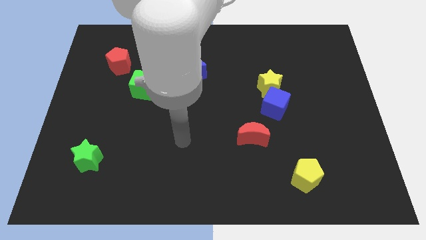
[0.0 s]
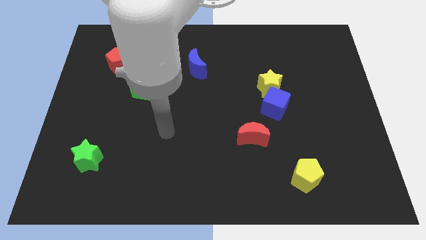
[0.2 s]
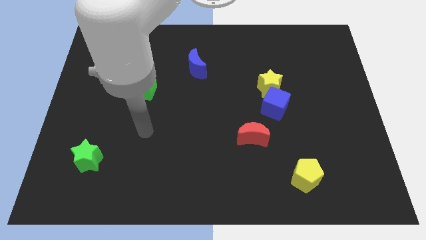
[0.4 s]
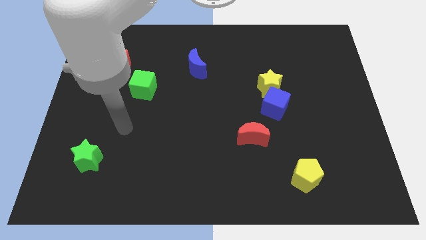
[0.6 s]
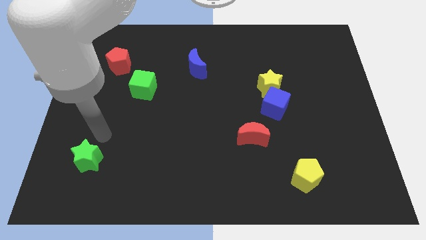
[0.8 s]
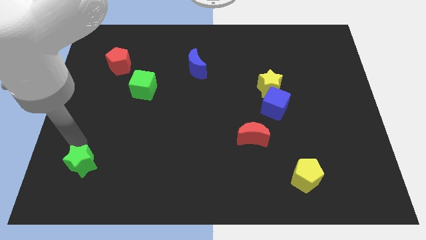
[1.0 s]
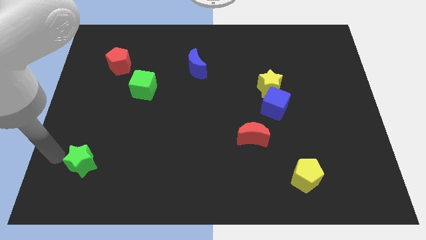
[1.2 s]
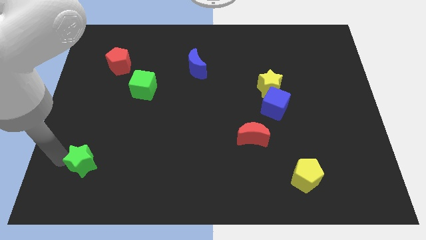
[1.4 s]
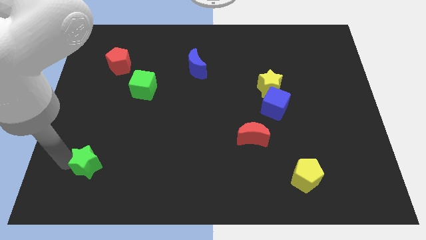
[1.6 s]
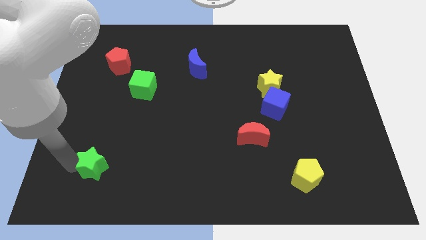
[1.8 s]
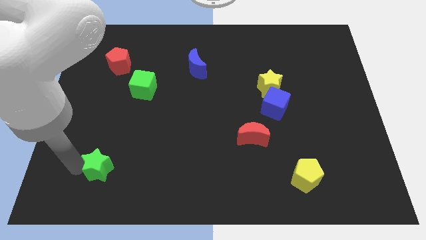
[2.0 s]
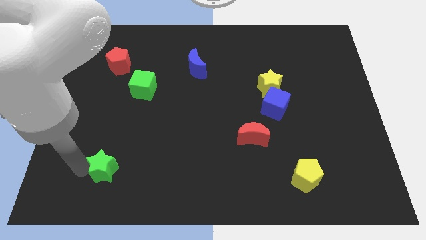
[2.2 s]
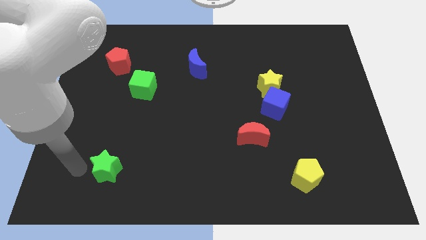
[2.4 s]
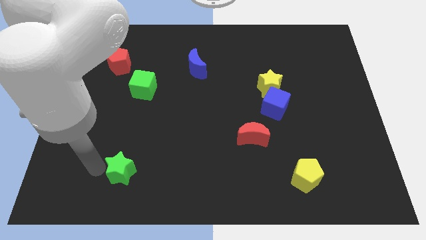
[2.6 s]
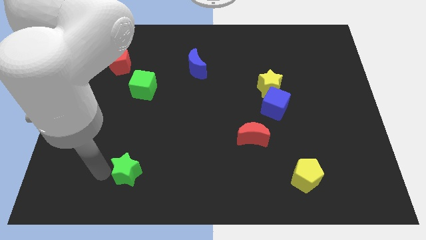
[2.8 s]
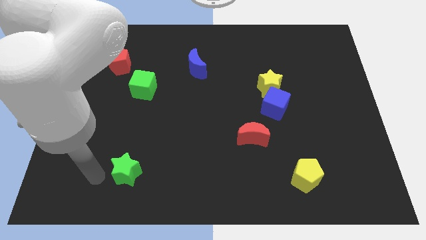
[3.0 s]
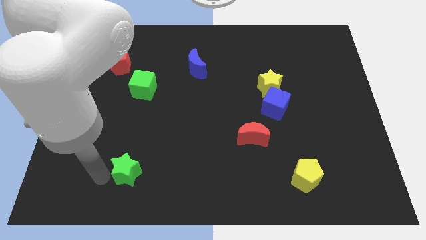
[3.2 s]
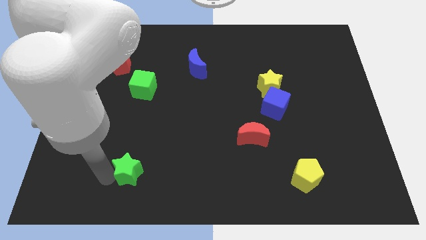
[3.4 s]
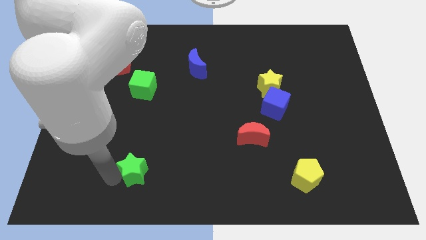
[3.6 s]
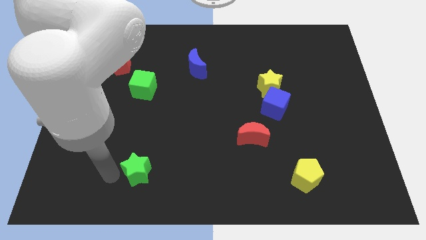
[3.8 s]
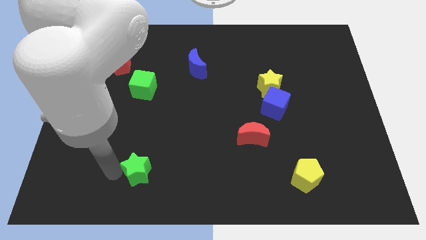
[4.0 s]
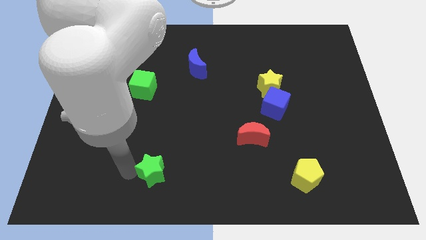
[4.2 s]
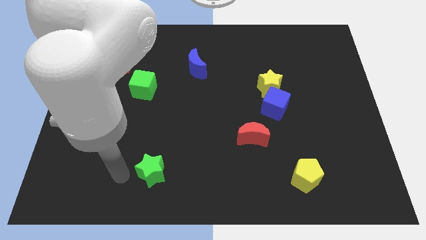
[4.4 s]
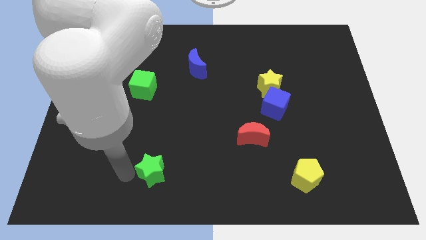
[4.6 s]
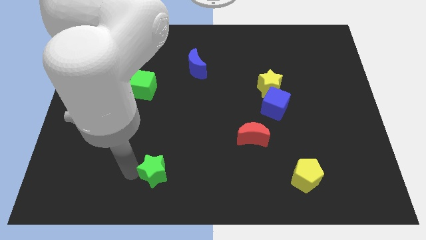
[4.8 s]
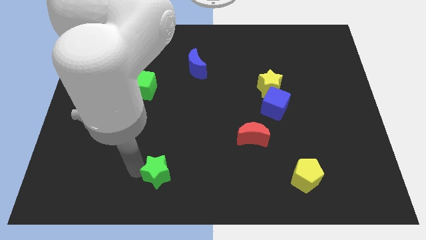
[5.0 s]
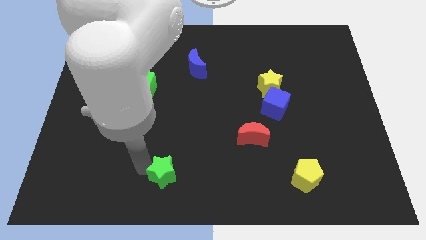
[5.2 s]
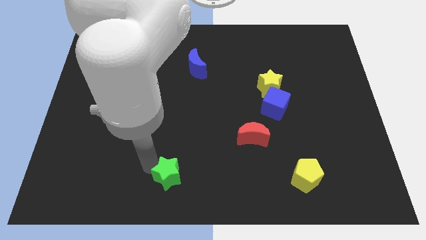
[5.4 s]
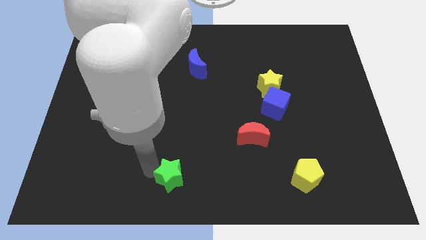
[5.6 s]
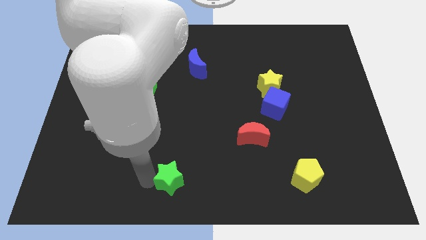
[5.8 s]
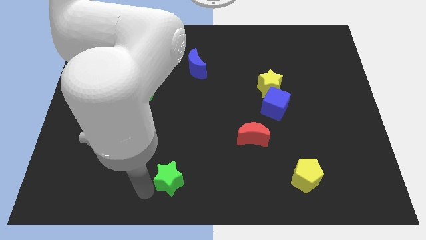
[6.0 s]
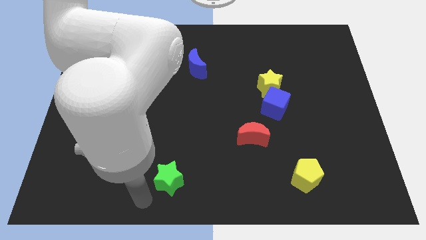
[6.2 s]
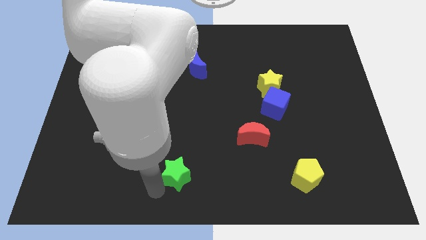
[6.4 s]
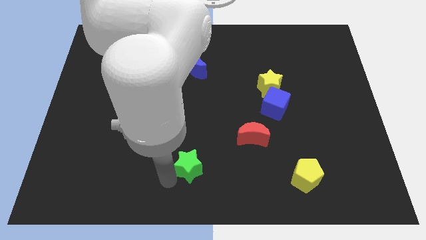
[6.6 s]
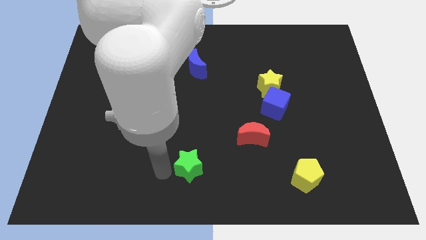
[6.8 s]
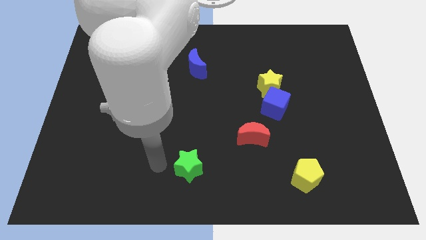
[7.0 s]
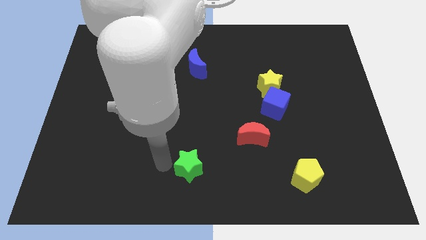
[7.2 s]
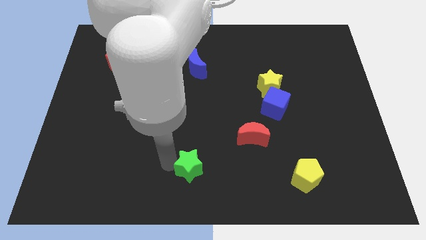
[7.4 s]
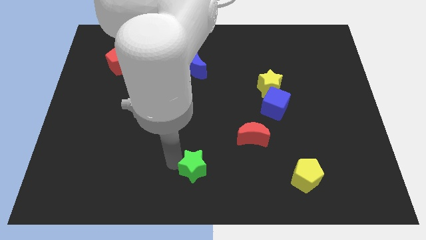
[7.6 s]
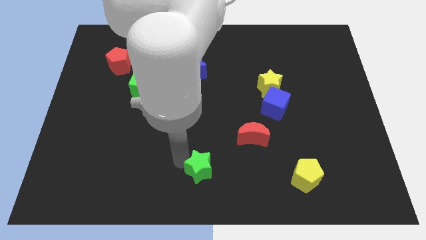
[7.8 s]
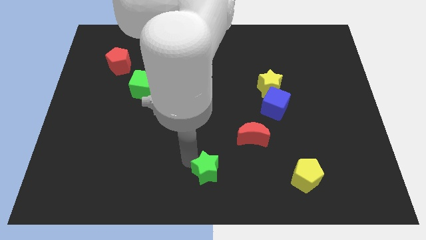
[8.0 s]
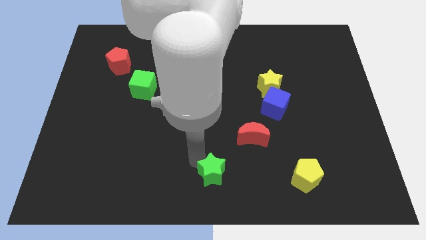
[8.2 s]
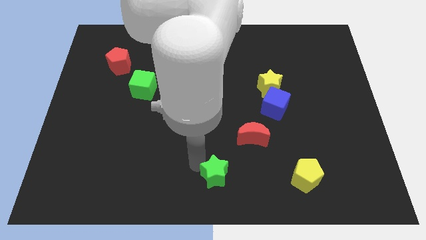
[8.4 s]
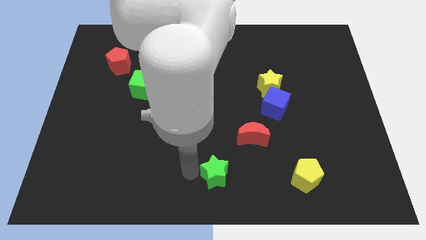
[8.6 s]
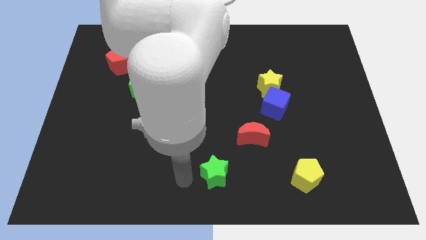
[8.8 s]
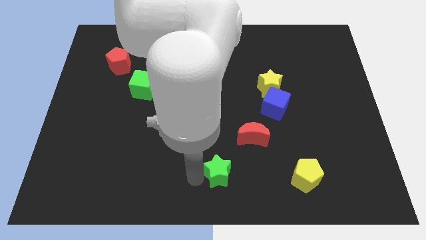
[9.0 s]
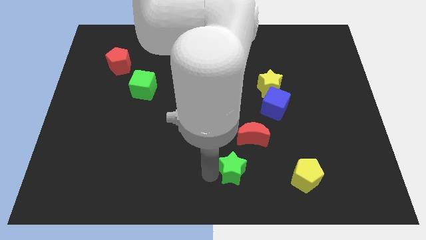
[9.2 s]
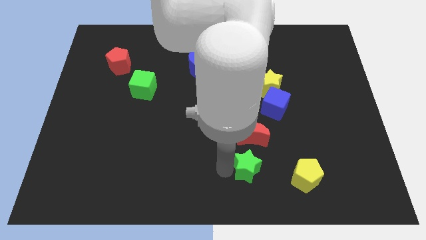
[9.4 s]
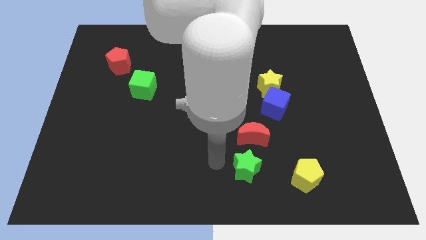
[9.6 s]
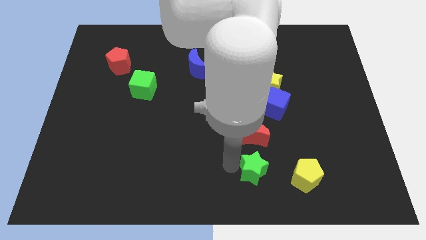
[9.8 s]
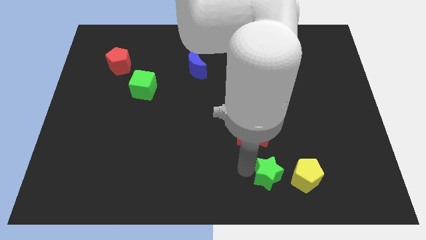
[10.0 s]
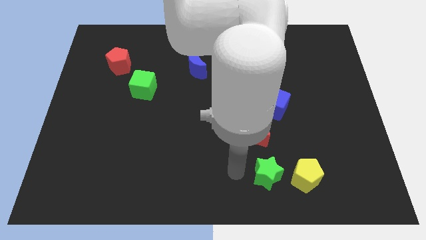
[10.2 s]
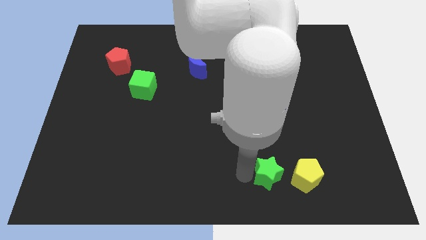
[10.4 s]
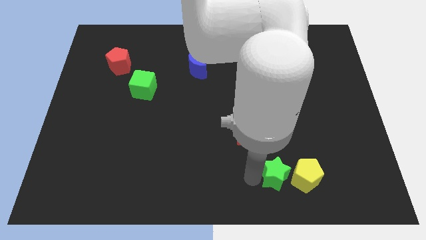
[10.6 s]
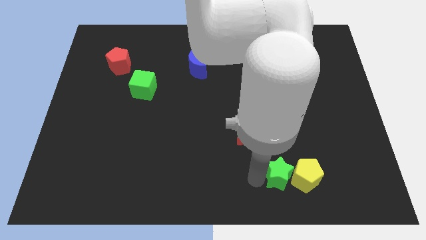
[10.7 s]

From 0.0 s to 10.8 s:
slide the green star close to the yellow pentagon

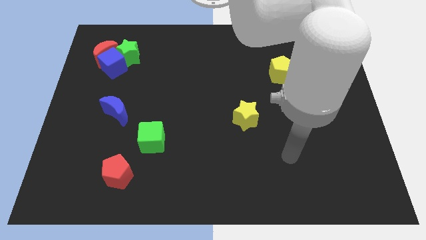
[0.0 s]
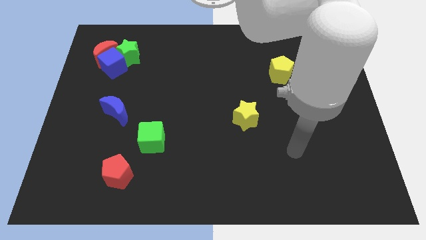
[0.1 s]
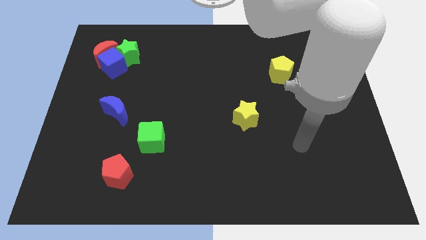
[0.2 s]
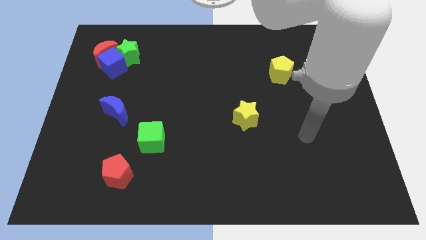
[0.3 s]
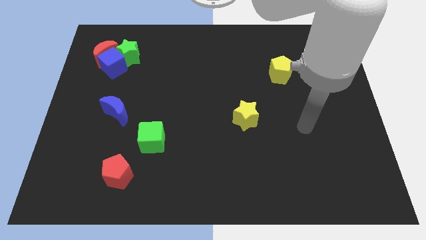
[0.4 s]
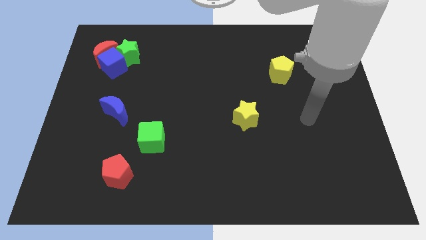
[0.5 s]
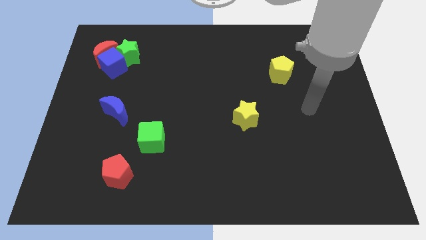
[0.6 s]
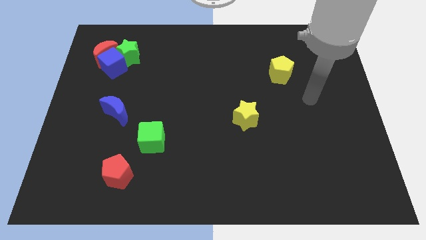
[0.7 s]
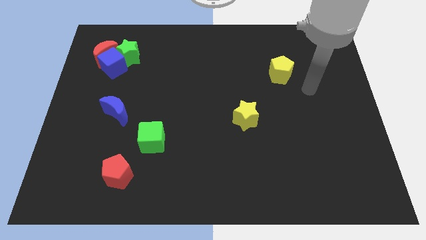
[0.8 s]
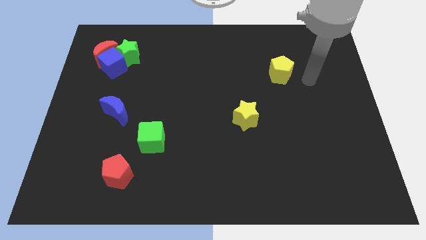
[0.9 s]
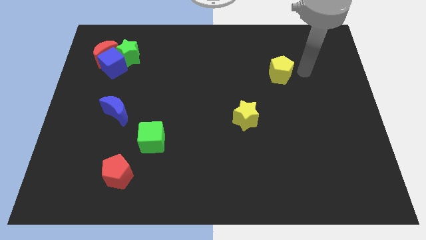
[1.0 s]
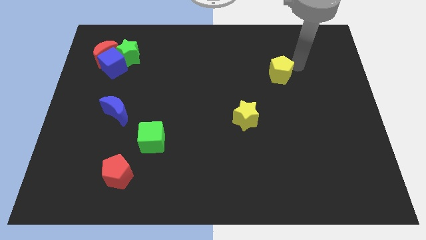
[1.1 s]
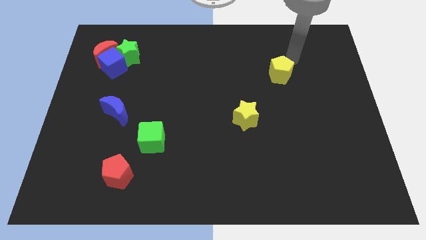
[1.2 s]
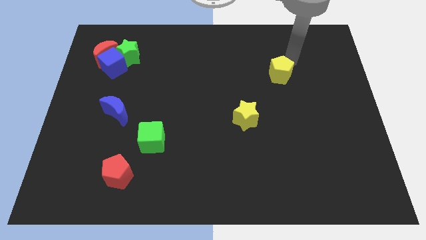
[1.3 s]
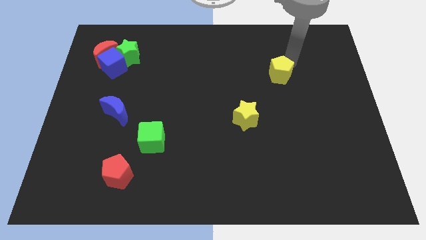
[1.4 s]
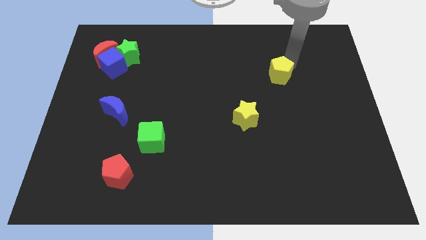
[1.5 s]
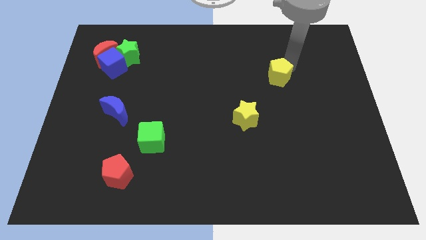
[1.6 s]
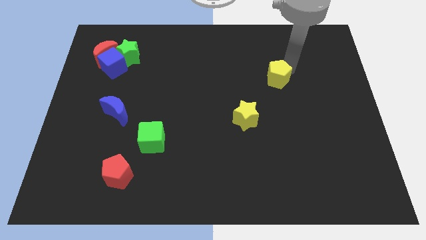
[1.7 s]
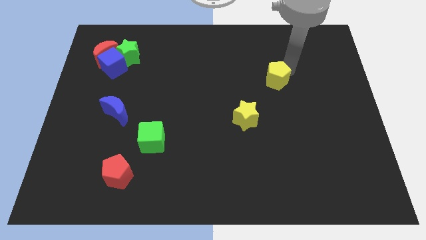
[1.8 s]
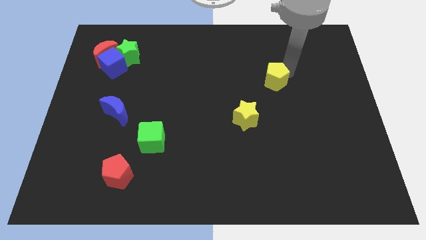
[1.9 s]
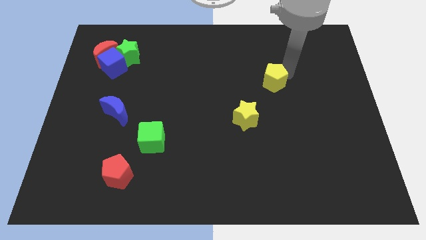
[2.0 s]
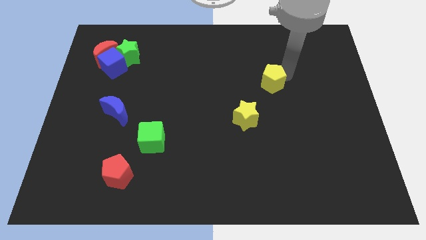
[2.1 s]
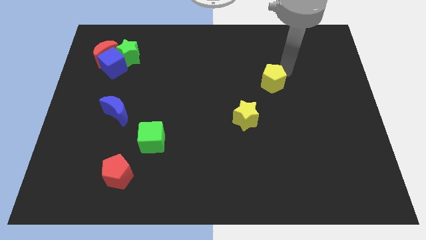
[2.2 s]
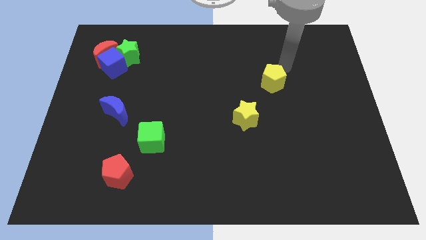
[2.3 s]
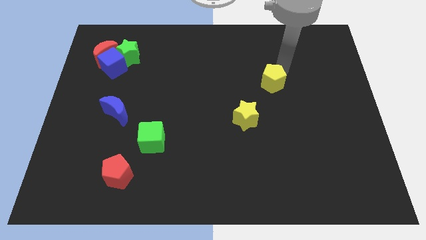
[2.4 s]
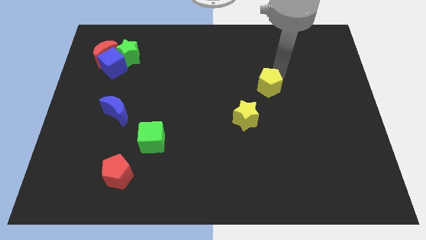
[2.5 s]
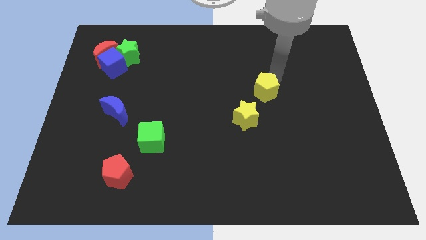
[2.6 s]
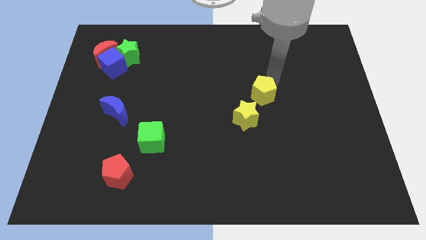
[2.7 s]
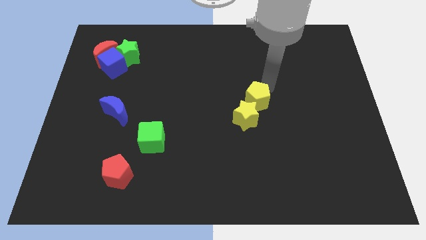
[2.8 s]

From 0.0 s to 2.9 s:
move the yellow pentagon next to the yellow star

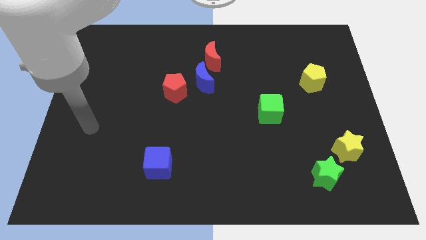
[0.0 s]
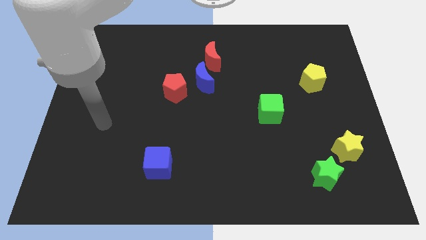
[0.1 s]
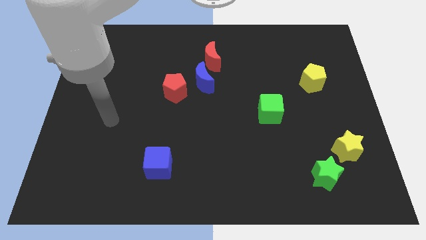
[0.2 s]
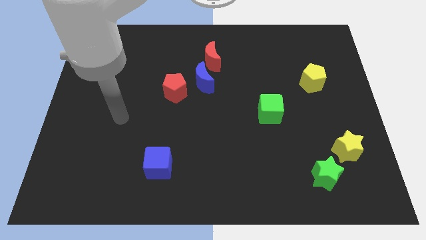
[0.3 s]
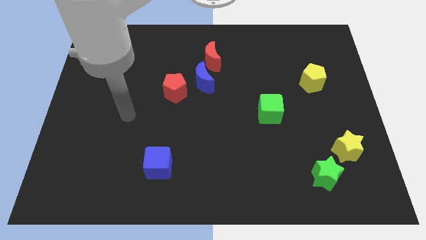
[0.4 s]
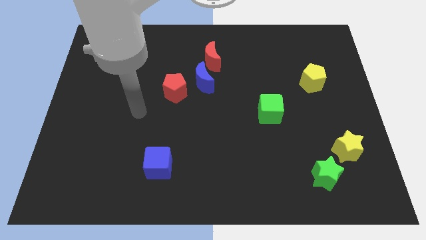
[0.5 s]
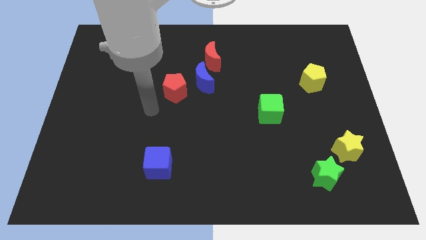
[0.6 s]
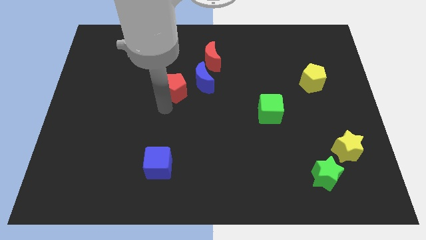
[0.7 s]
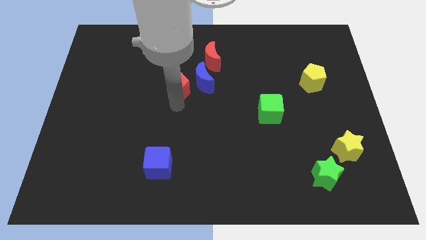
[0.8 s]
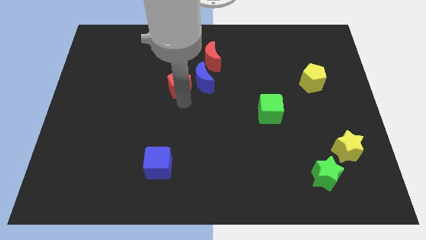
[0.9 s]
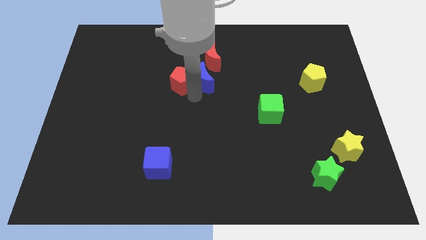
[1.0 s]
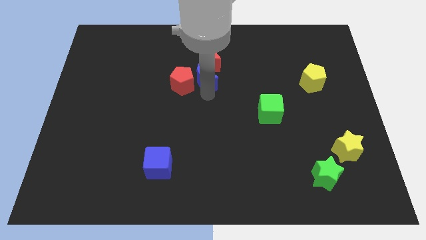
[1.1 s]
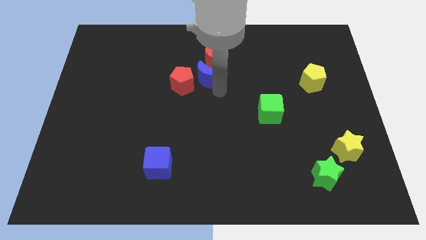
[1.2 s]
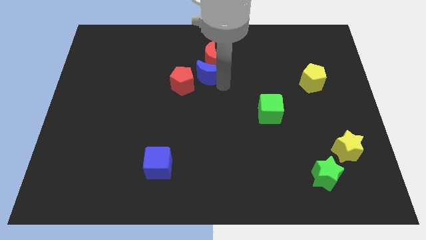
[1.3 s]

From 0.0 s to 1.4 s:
move the red moon close to the blue moon
